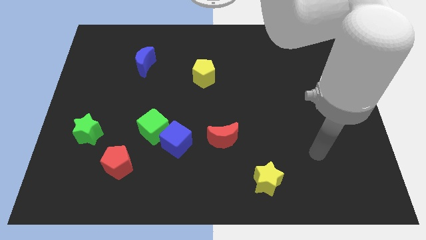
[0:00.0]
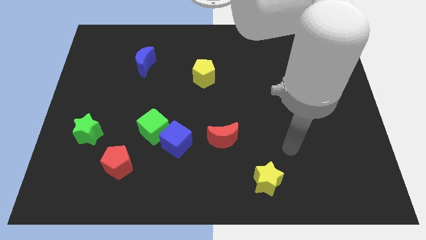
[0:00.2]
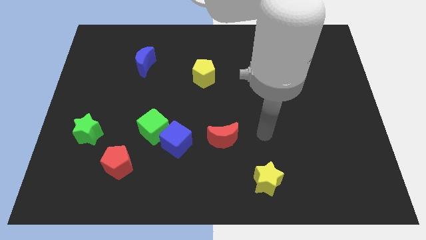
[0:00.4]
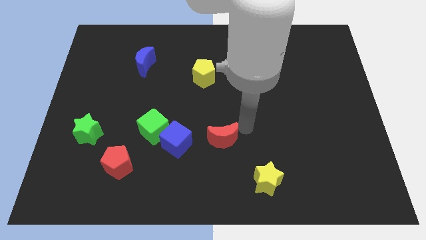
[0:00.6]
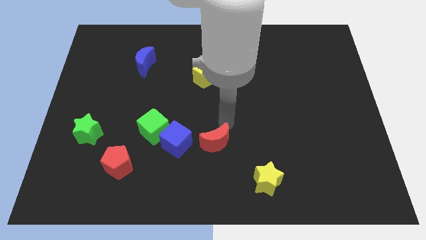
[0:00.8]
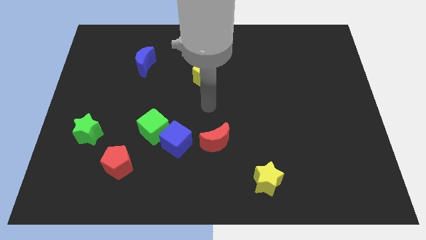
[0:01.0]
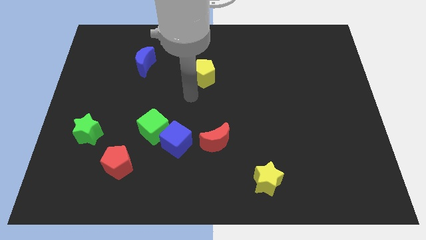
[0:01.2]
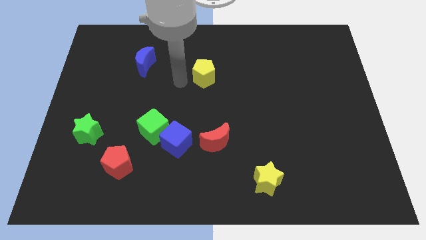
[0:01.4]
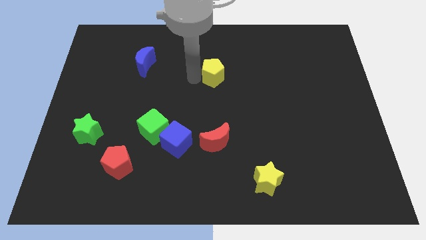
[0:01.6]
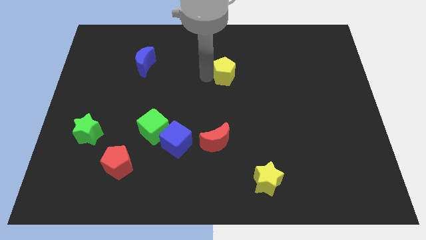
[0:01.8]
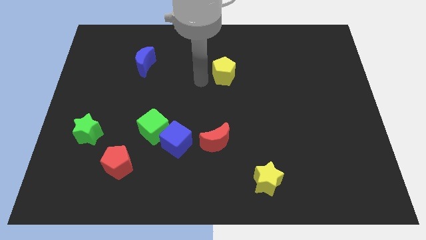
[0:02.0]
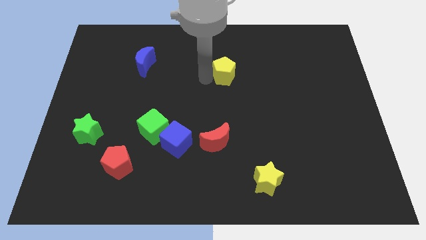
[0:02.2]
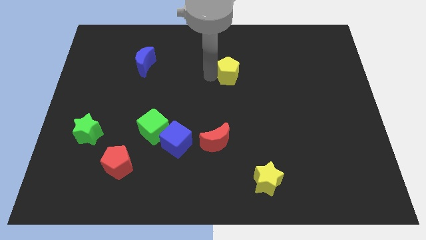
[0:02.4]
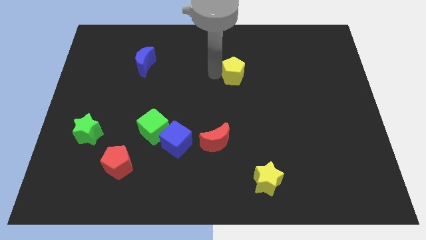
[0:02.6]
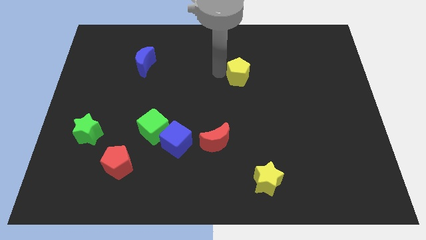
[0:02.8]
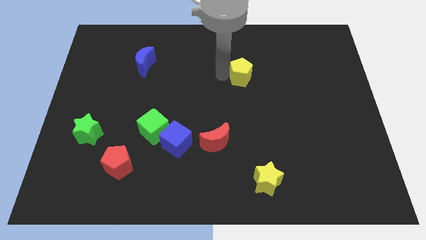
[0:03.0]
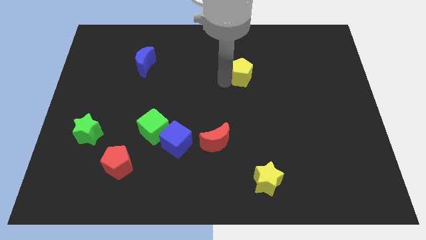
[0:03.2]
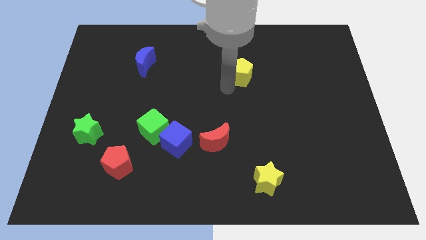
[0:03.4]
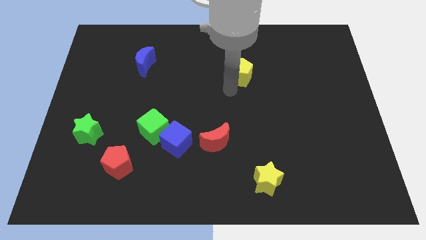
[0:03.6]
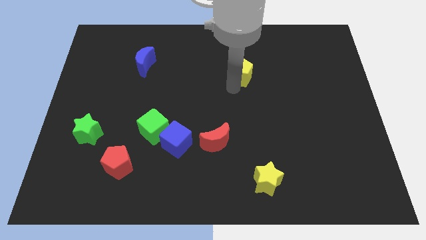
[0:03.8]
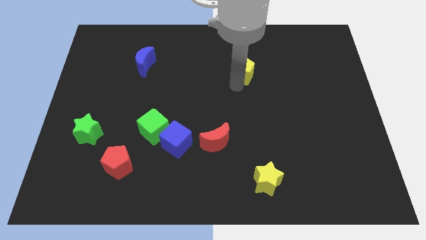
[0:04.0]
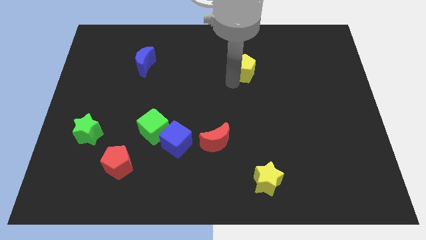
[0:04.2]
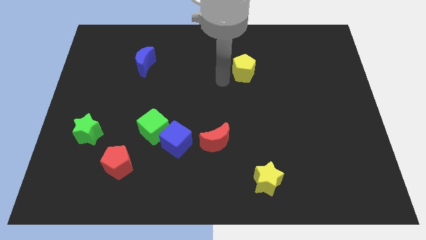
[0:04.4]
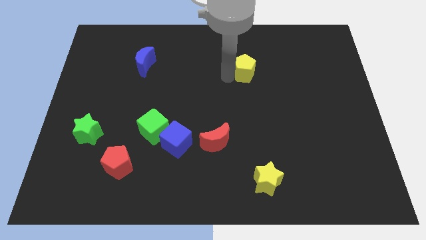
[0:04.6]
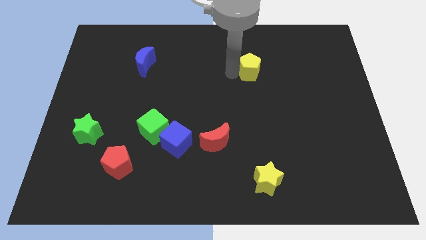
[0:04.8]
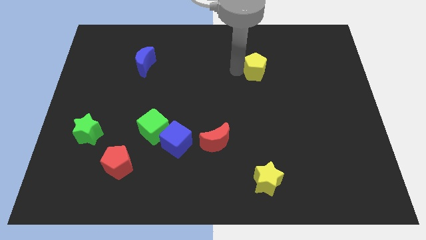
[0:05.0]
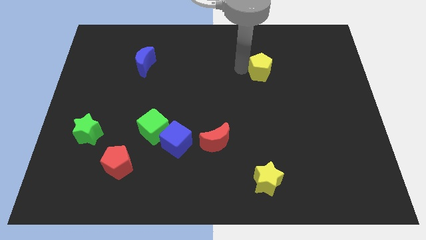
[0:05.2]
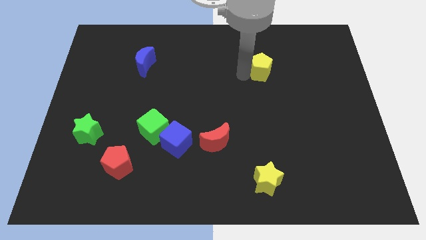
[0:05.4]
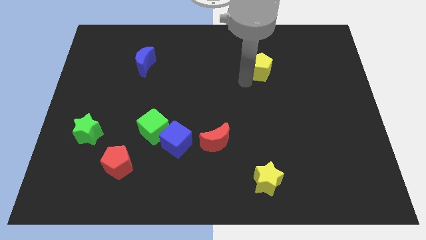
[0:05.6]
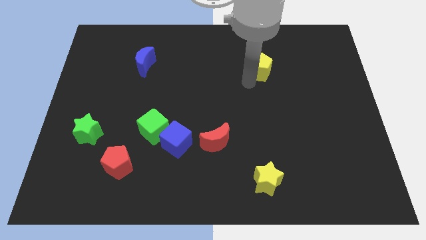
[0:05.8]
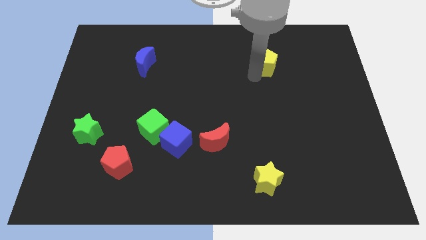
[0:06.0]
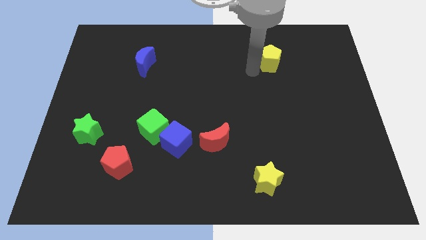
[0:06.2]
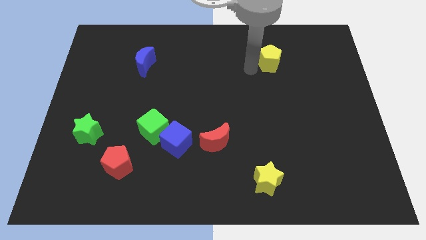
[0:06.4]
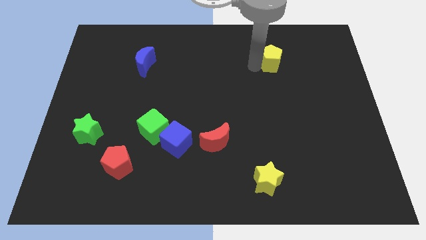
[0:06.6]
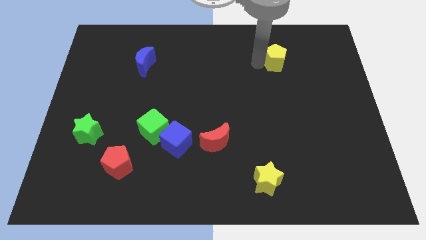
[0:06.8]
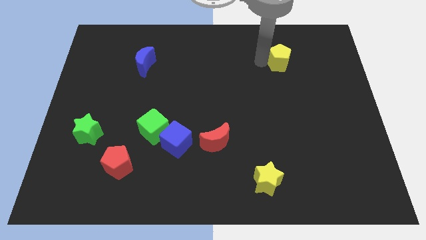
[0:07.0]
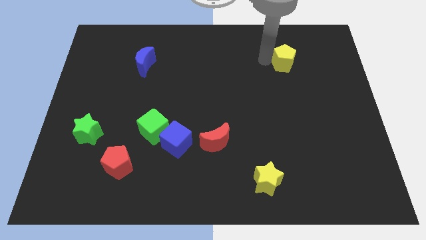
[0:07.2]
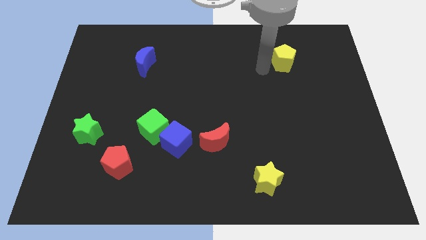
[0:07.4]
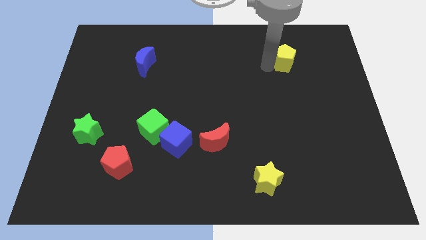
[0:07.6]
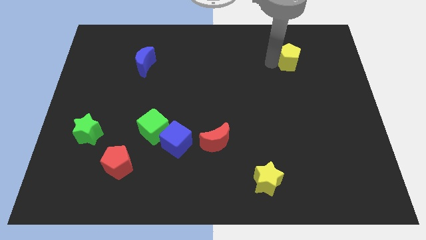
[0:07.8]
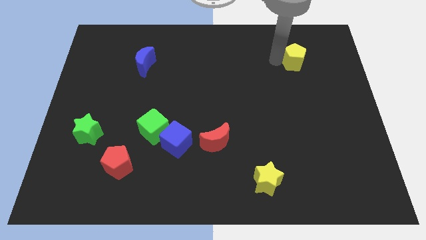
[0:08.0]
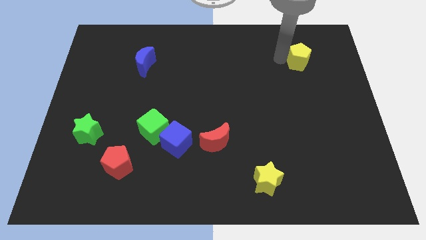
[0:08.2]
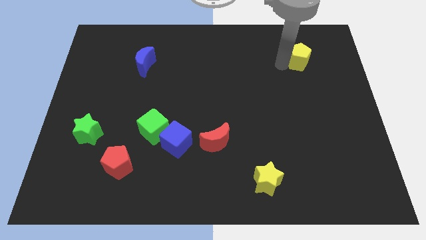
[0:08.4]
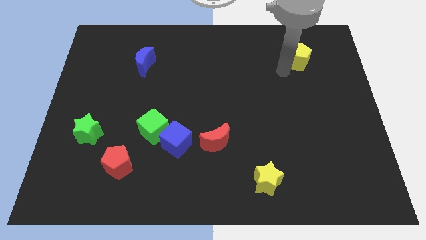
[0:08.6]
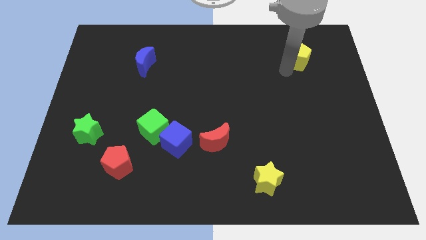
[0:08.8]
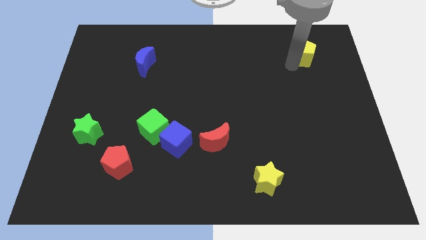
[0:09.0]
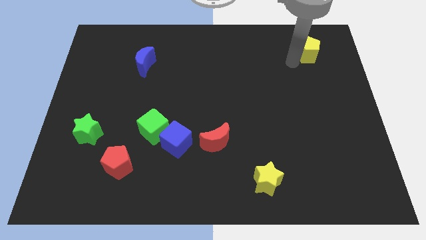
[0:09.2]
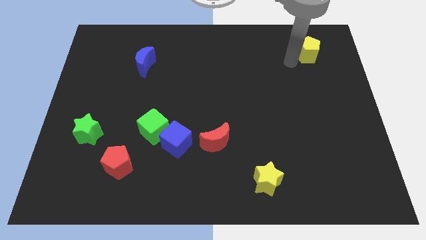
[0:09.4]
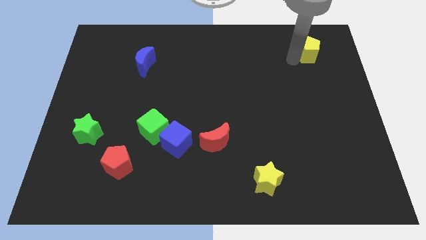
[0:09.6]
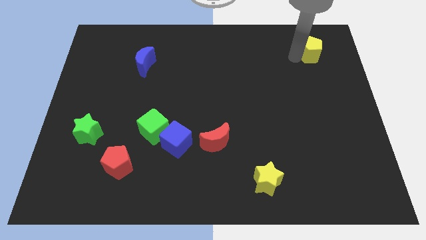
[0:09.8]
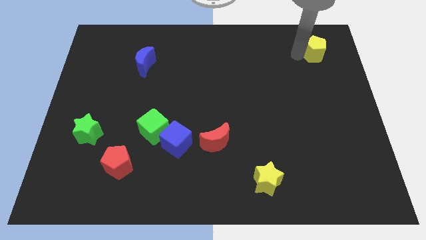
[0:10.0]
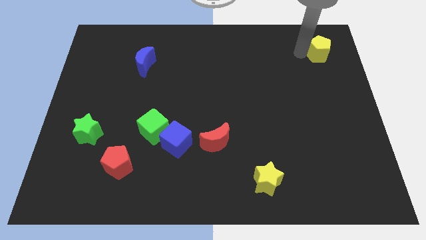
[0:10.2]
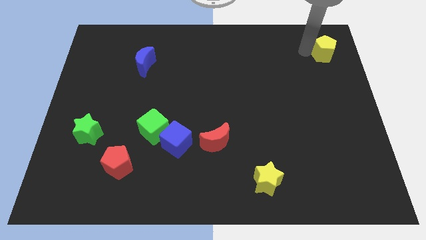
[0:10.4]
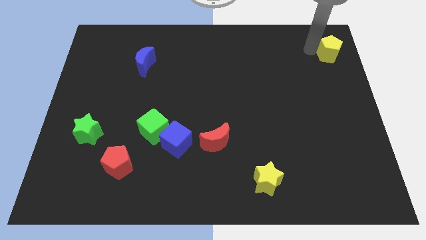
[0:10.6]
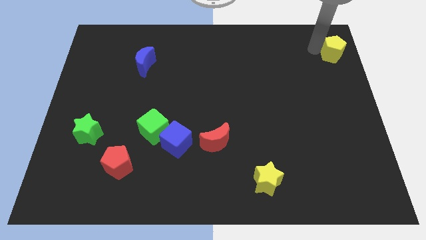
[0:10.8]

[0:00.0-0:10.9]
put the yellow pentagon to the top right
